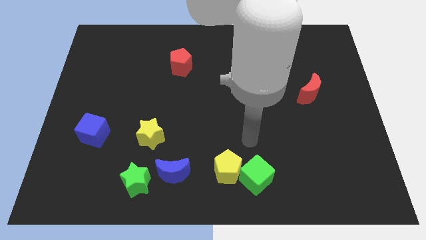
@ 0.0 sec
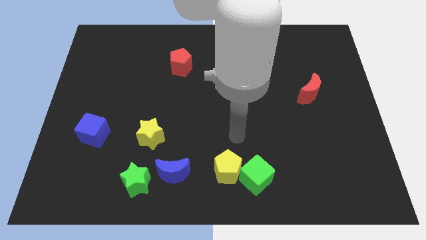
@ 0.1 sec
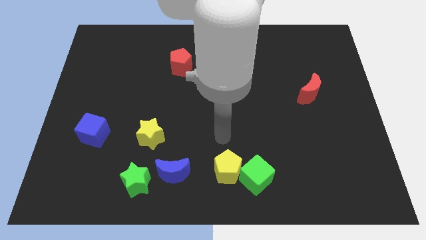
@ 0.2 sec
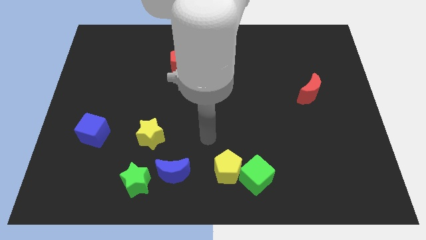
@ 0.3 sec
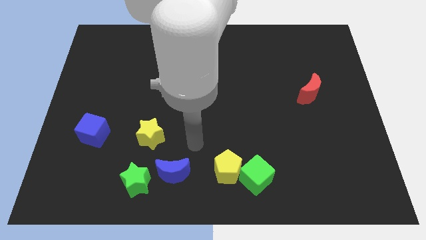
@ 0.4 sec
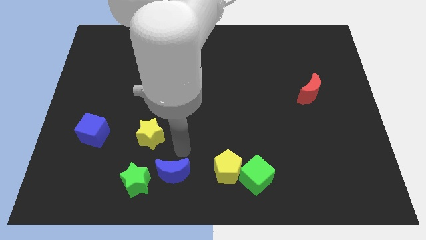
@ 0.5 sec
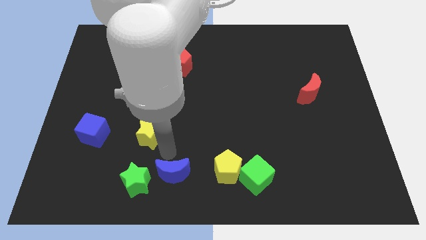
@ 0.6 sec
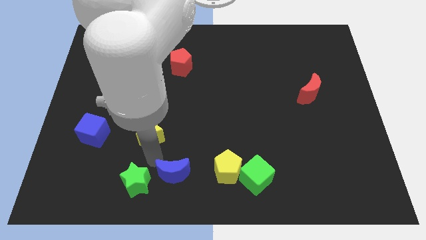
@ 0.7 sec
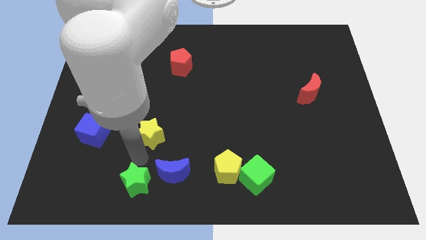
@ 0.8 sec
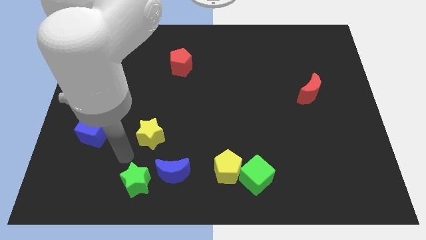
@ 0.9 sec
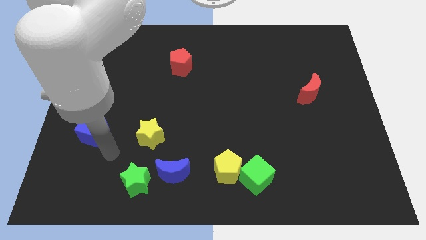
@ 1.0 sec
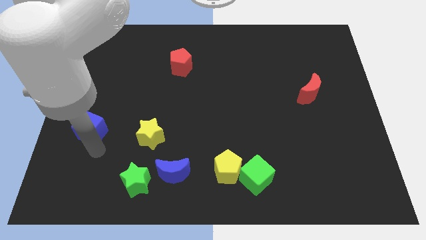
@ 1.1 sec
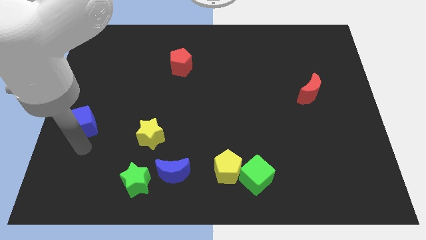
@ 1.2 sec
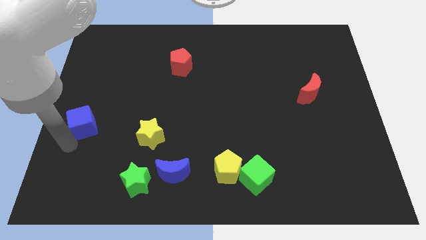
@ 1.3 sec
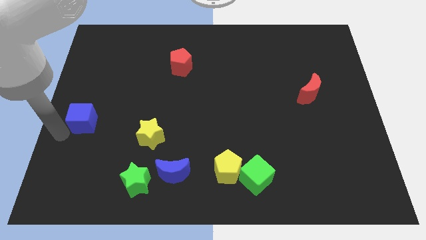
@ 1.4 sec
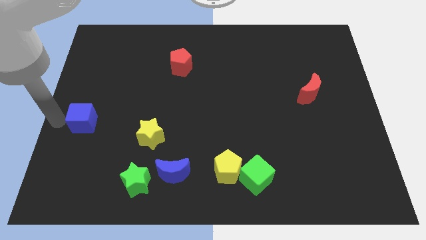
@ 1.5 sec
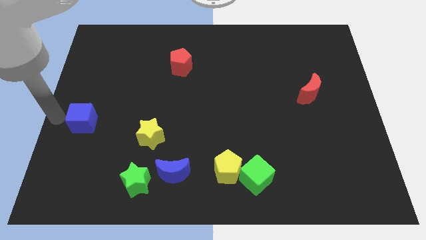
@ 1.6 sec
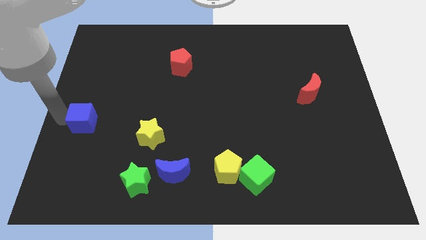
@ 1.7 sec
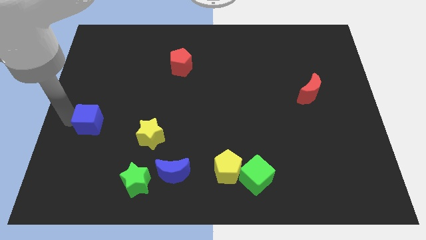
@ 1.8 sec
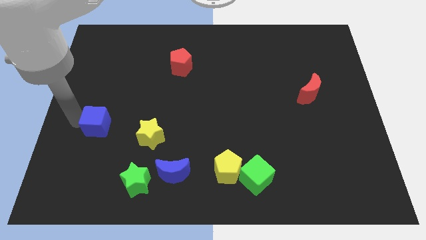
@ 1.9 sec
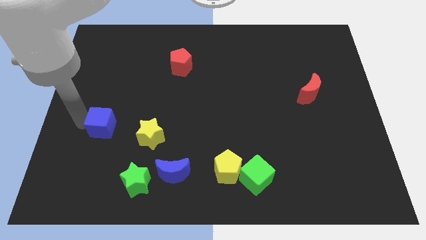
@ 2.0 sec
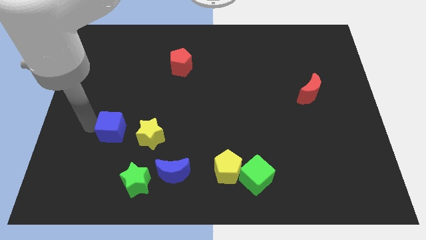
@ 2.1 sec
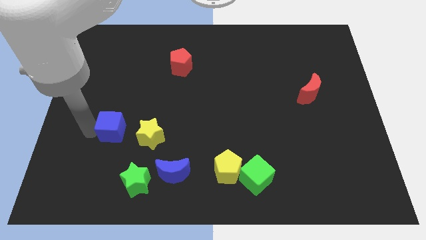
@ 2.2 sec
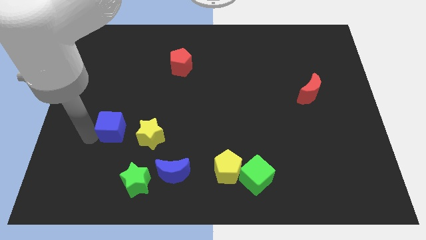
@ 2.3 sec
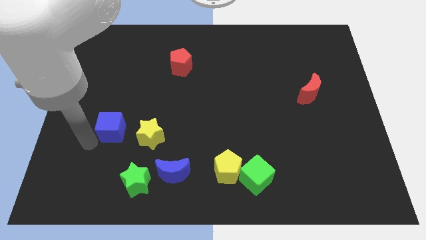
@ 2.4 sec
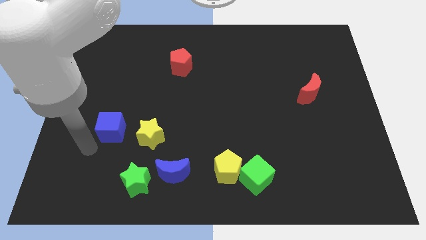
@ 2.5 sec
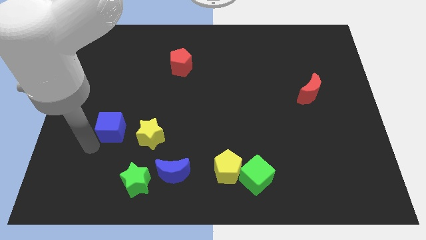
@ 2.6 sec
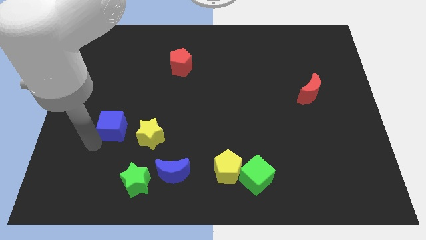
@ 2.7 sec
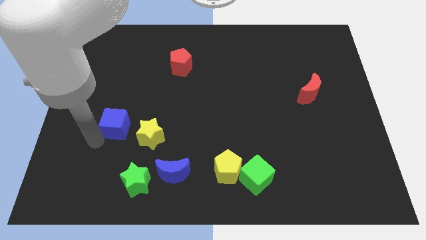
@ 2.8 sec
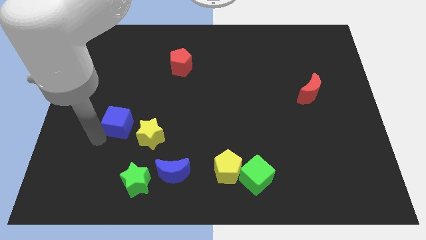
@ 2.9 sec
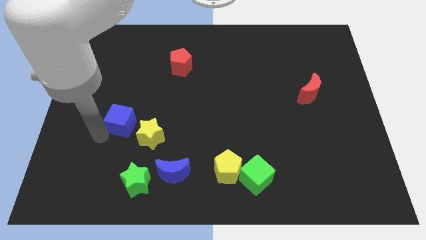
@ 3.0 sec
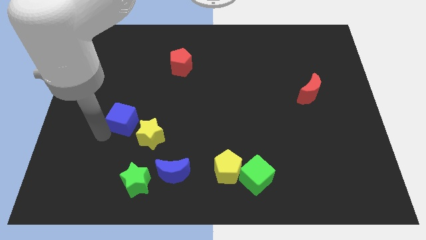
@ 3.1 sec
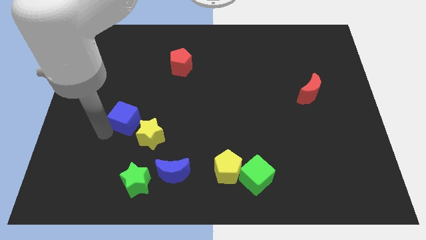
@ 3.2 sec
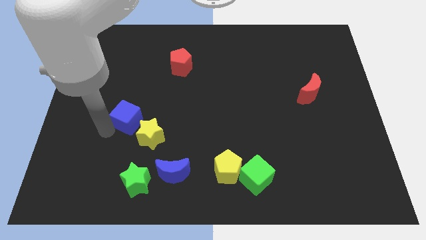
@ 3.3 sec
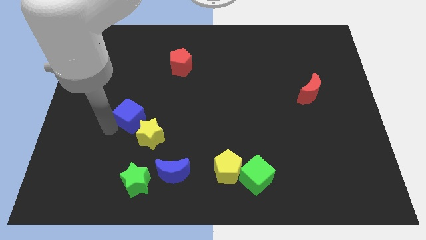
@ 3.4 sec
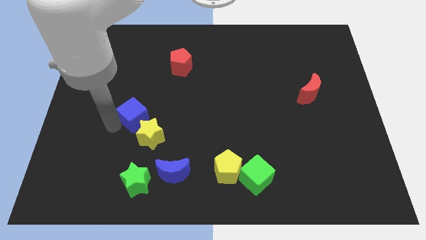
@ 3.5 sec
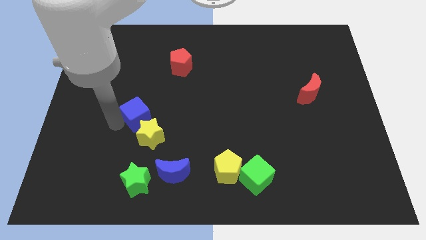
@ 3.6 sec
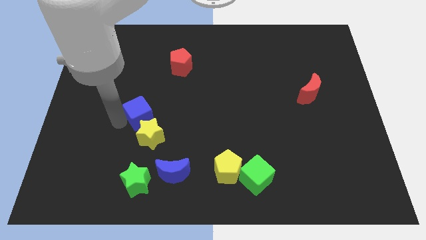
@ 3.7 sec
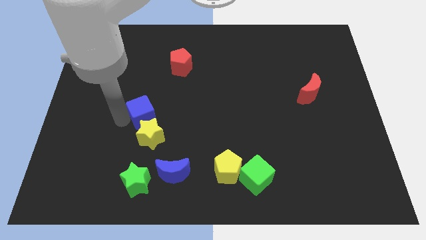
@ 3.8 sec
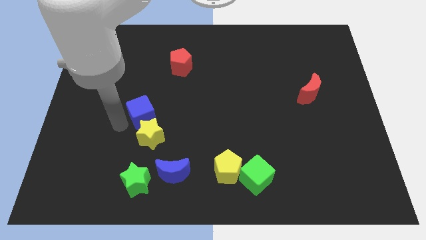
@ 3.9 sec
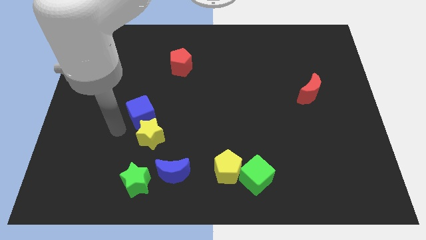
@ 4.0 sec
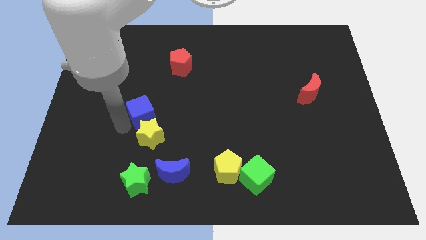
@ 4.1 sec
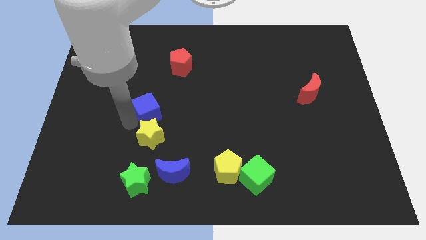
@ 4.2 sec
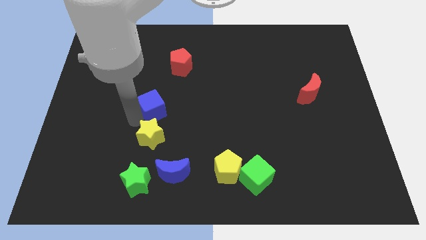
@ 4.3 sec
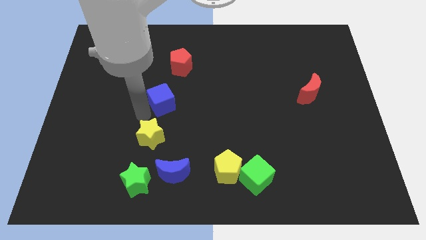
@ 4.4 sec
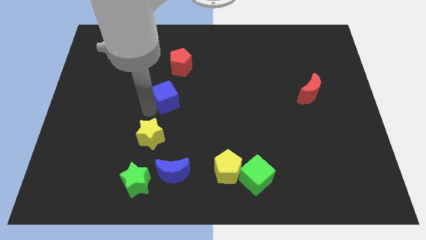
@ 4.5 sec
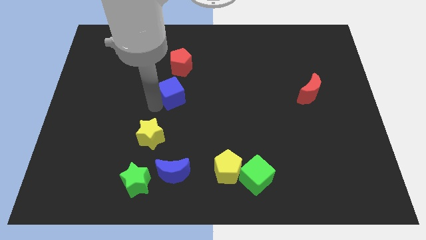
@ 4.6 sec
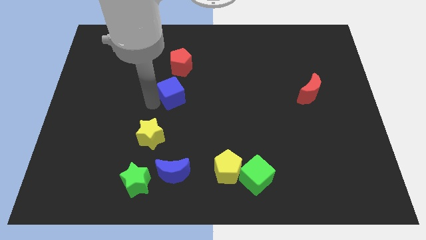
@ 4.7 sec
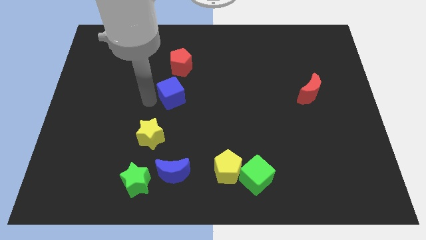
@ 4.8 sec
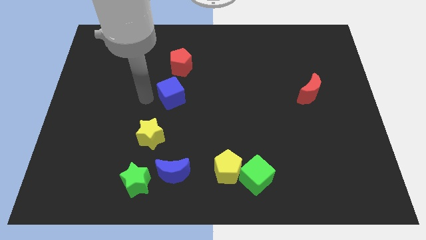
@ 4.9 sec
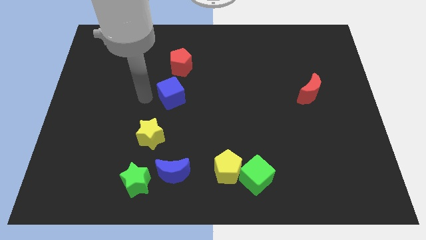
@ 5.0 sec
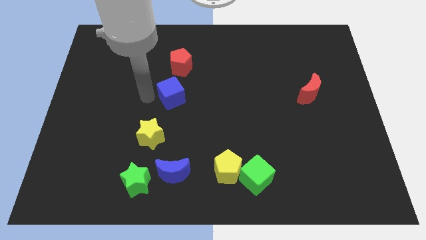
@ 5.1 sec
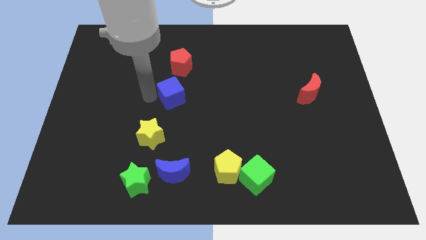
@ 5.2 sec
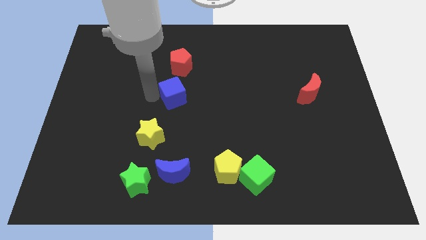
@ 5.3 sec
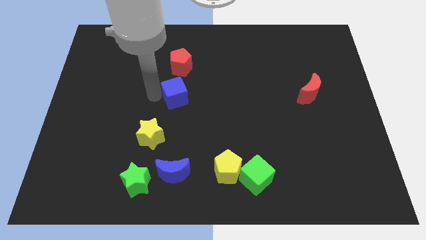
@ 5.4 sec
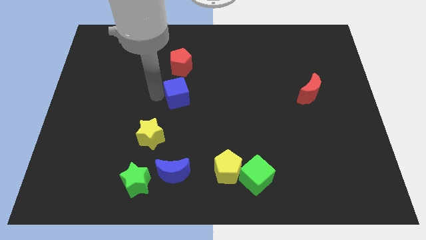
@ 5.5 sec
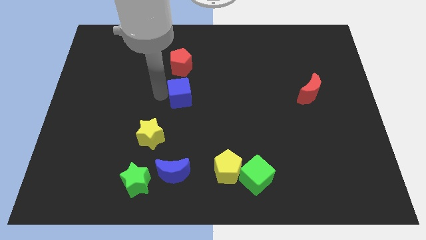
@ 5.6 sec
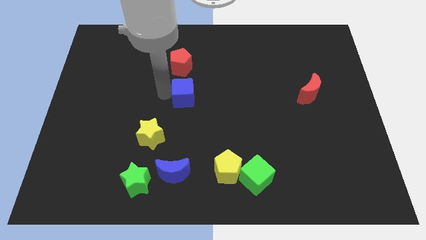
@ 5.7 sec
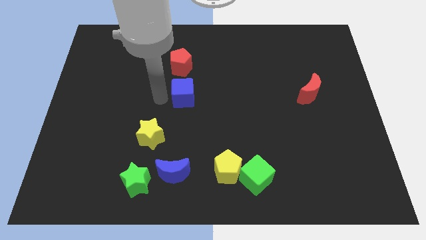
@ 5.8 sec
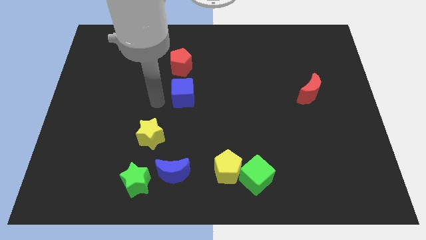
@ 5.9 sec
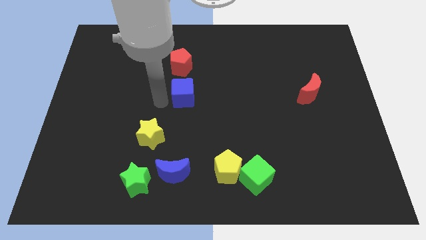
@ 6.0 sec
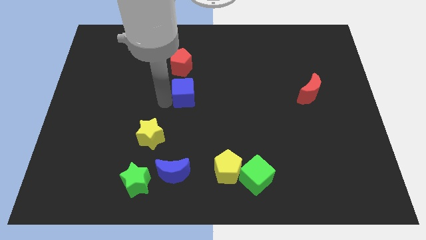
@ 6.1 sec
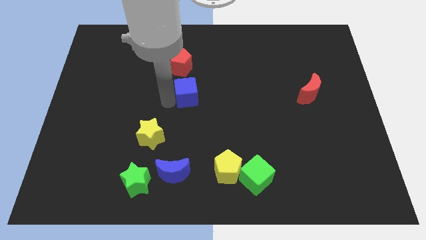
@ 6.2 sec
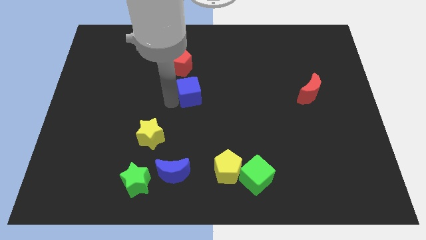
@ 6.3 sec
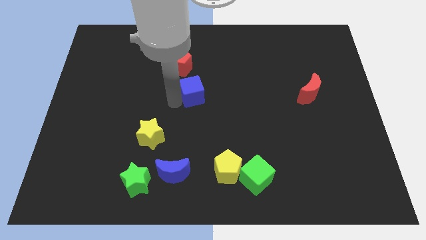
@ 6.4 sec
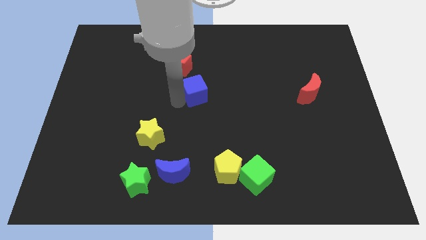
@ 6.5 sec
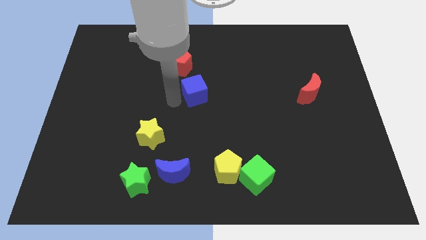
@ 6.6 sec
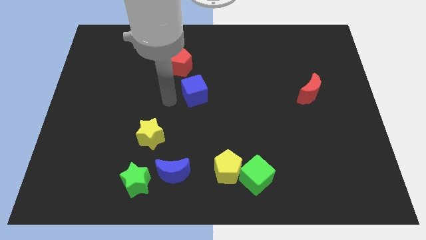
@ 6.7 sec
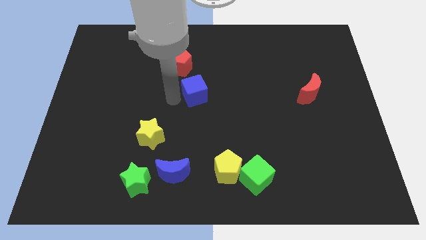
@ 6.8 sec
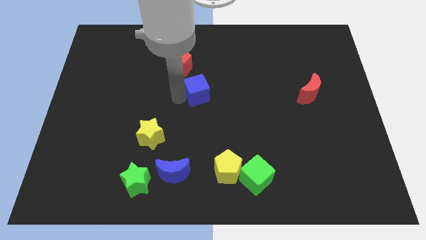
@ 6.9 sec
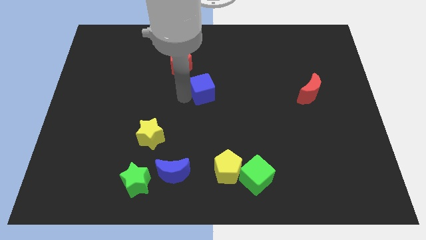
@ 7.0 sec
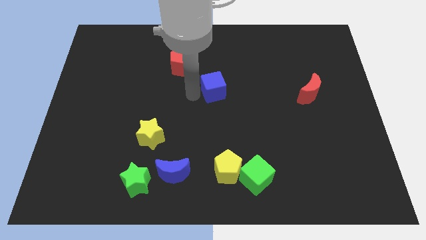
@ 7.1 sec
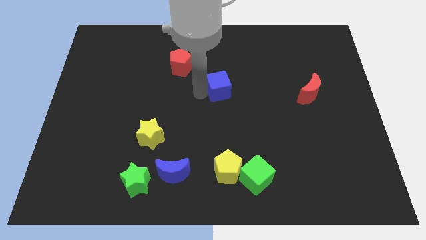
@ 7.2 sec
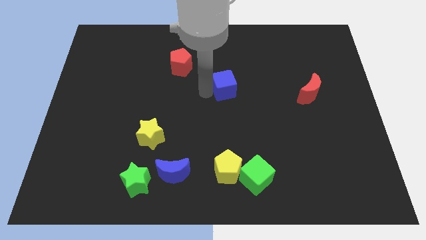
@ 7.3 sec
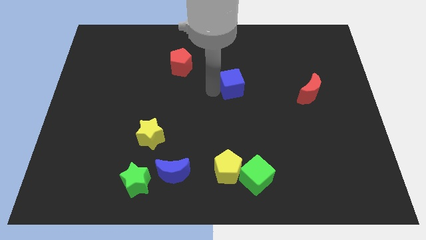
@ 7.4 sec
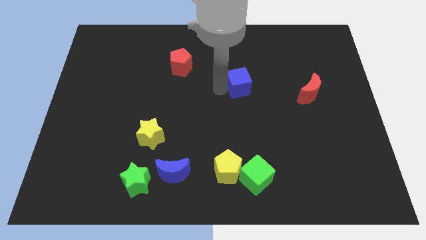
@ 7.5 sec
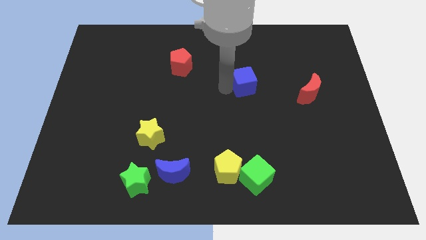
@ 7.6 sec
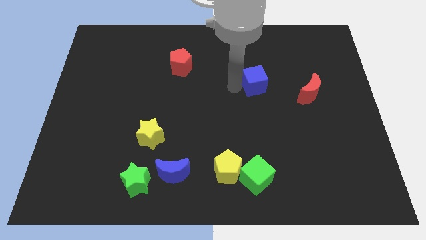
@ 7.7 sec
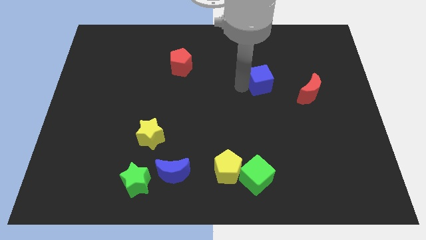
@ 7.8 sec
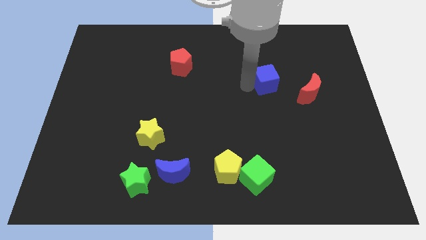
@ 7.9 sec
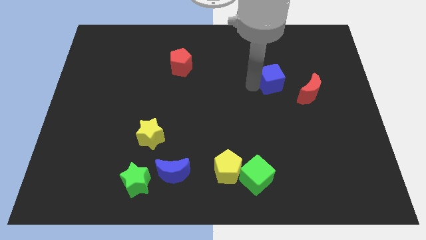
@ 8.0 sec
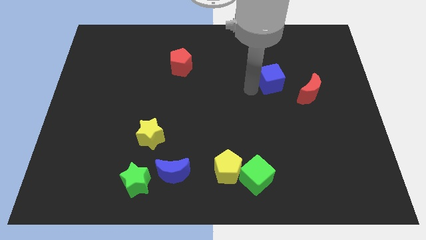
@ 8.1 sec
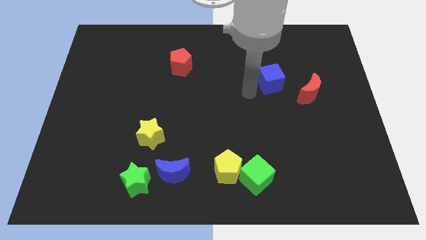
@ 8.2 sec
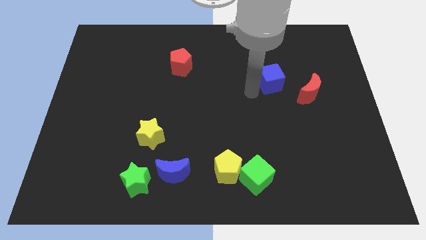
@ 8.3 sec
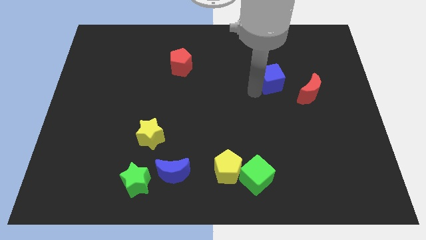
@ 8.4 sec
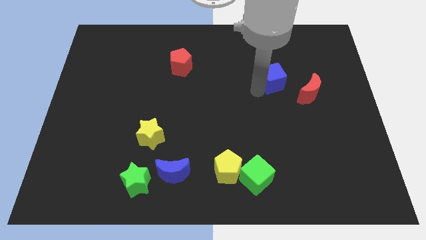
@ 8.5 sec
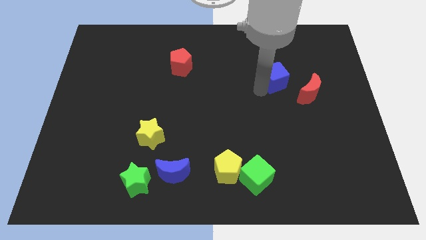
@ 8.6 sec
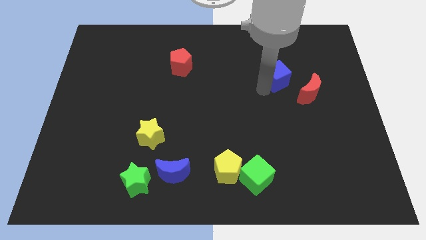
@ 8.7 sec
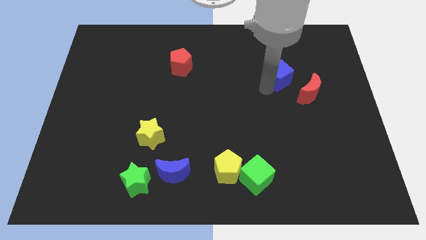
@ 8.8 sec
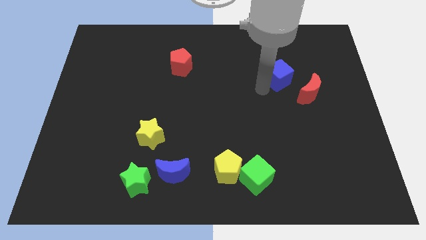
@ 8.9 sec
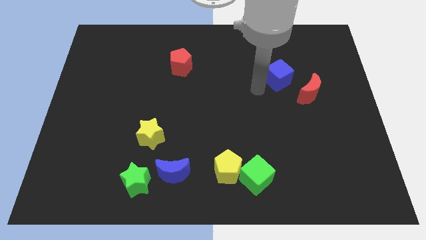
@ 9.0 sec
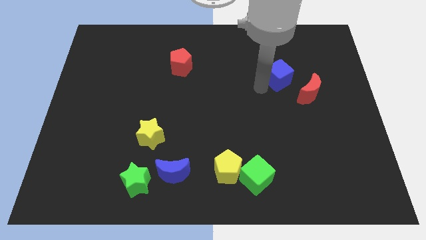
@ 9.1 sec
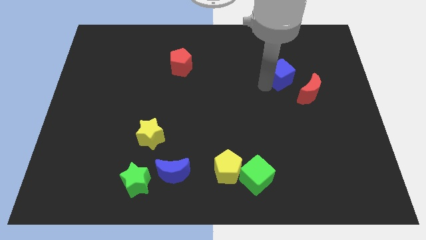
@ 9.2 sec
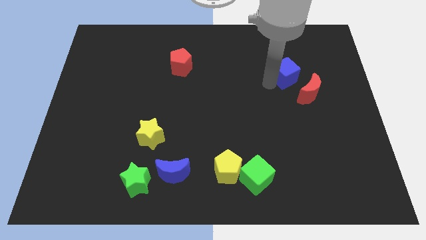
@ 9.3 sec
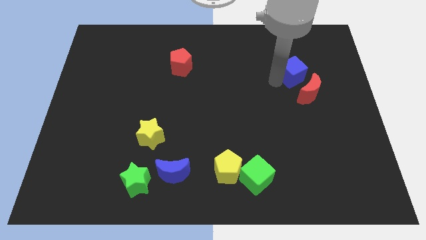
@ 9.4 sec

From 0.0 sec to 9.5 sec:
slide the blue cube to the top side of the red moon
